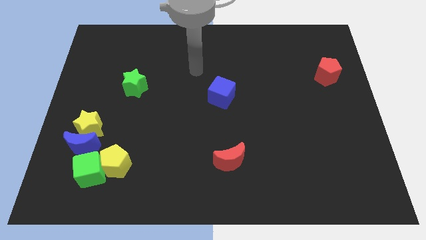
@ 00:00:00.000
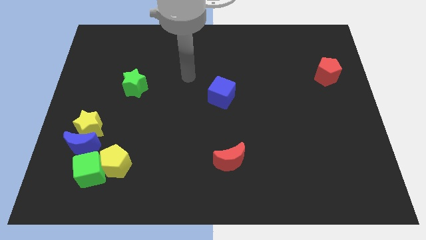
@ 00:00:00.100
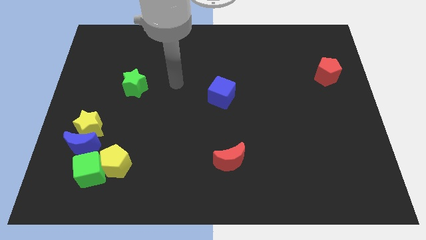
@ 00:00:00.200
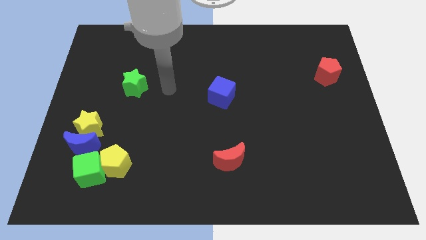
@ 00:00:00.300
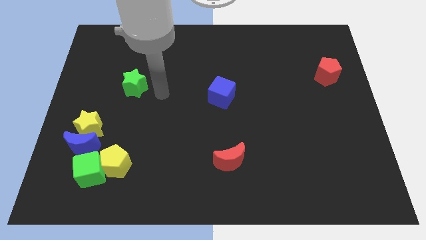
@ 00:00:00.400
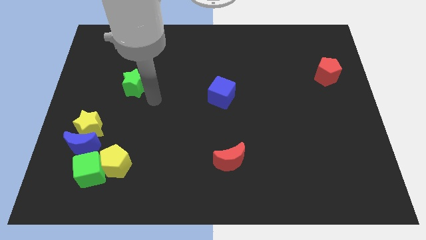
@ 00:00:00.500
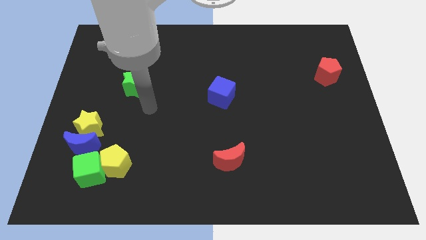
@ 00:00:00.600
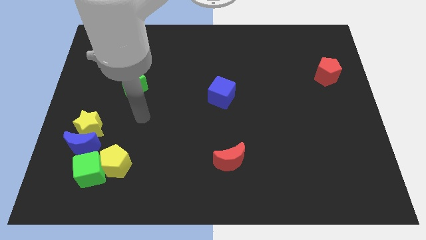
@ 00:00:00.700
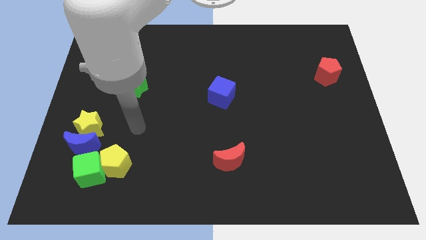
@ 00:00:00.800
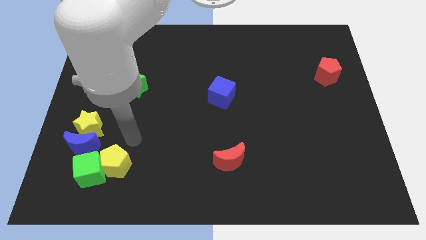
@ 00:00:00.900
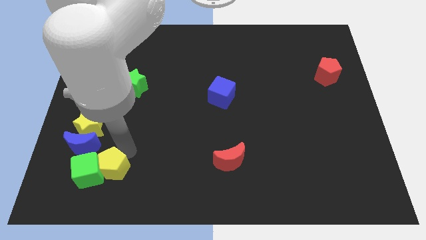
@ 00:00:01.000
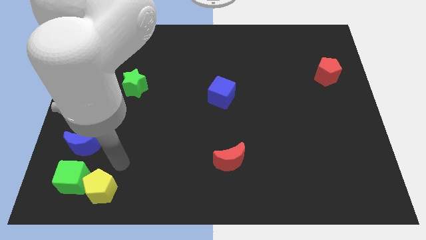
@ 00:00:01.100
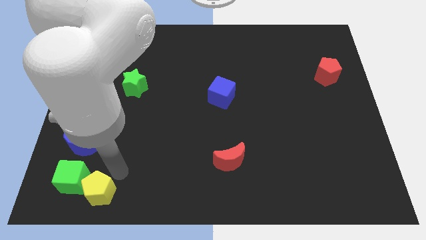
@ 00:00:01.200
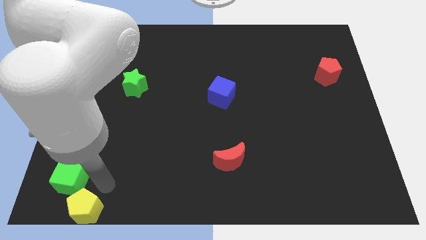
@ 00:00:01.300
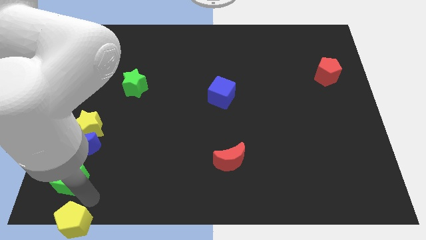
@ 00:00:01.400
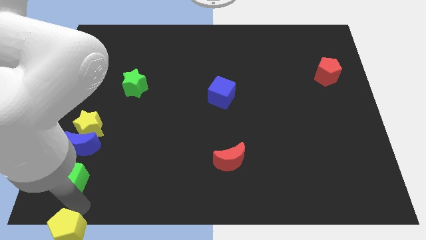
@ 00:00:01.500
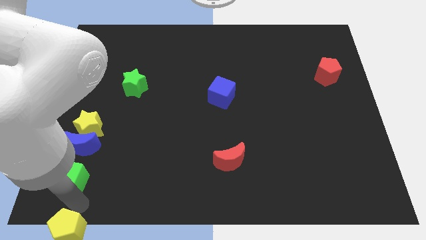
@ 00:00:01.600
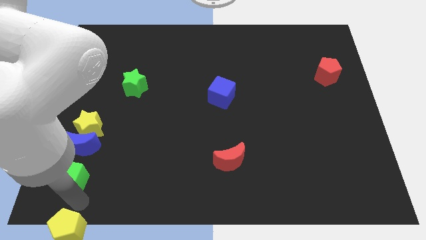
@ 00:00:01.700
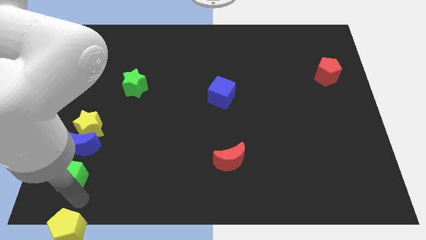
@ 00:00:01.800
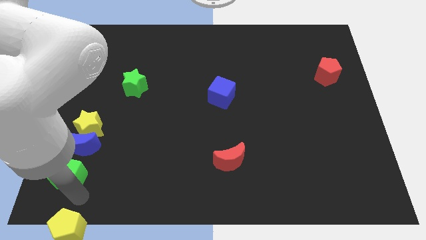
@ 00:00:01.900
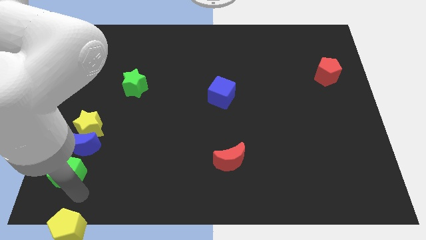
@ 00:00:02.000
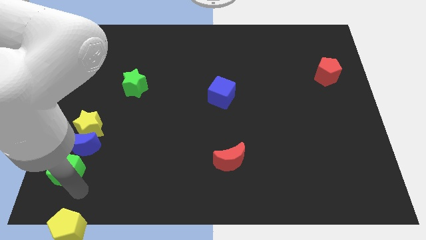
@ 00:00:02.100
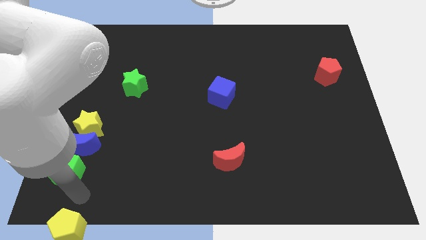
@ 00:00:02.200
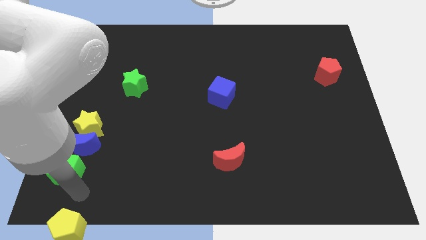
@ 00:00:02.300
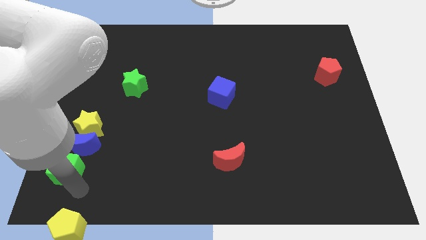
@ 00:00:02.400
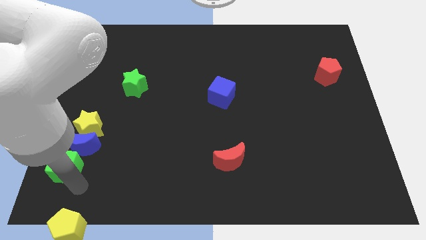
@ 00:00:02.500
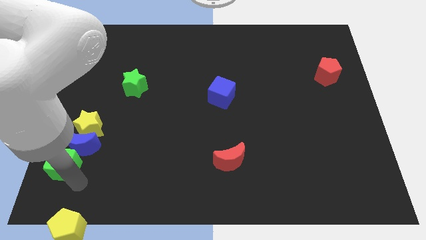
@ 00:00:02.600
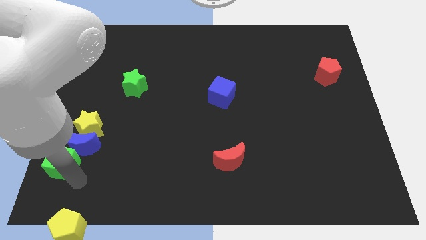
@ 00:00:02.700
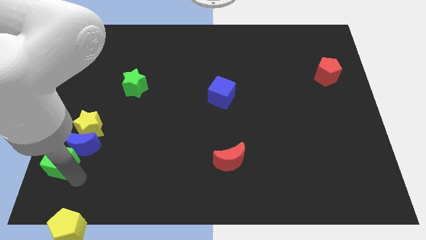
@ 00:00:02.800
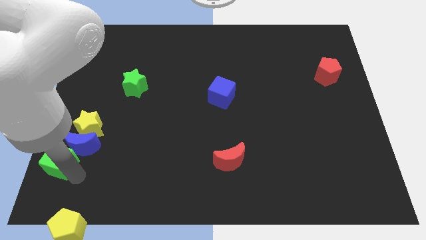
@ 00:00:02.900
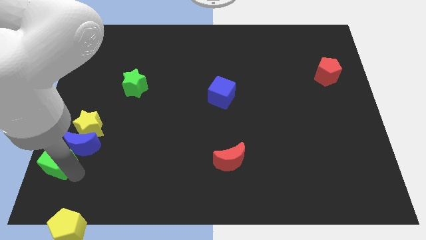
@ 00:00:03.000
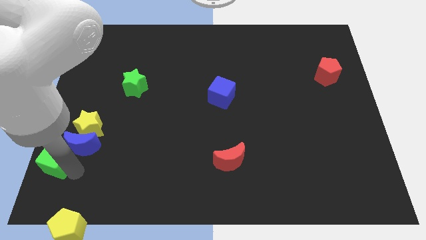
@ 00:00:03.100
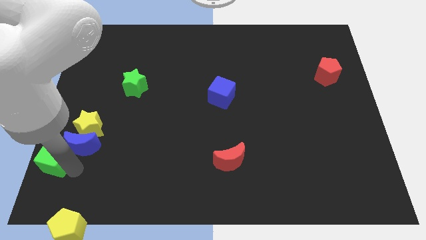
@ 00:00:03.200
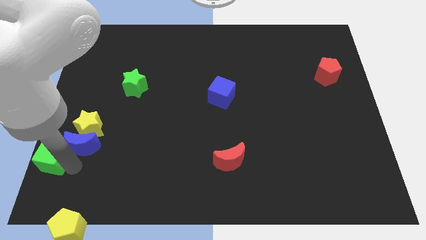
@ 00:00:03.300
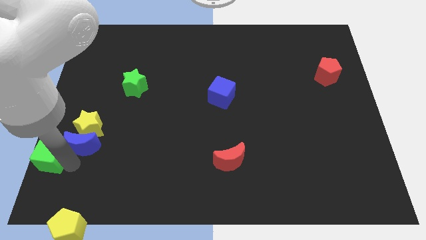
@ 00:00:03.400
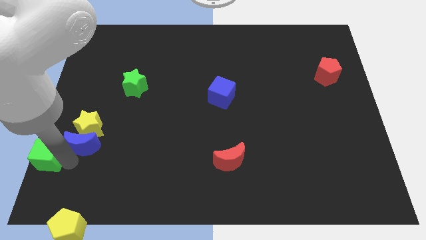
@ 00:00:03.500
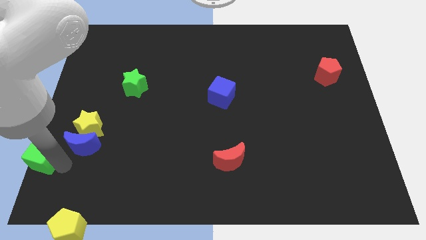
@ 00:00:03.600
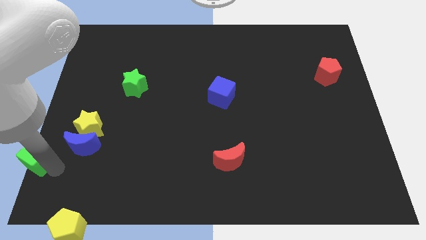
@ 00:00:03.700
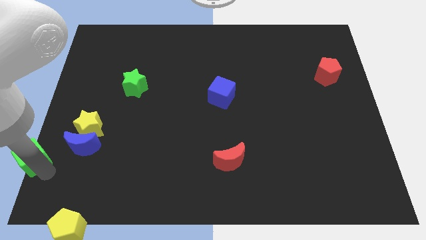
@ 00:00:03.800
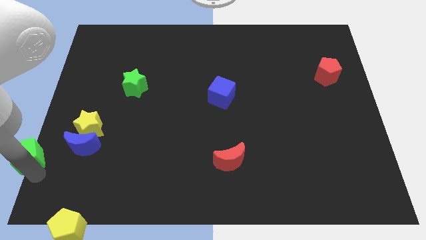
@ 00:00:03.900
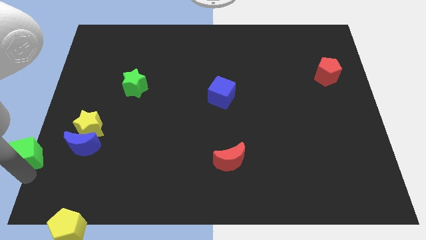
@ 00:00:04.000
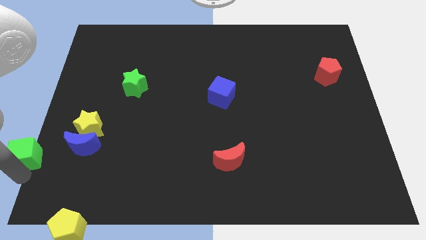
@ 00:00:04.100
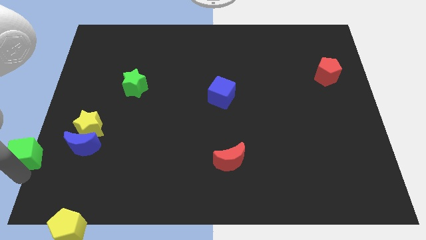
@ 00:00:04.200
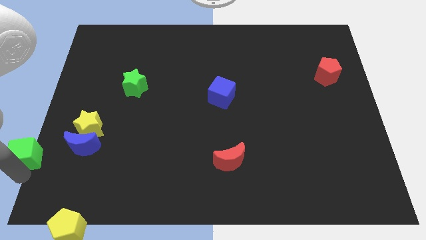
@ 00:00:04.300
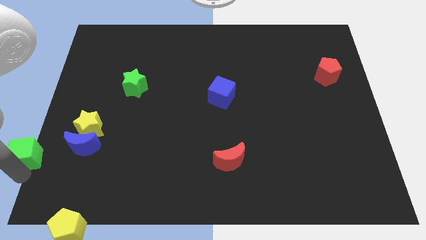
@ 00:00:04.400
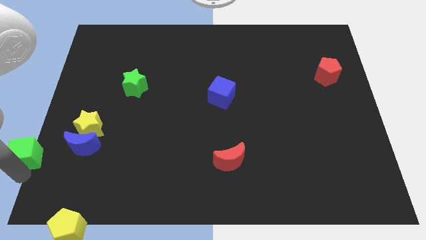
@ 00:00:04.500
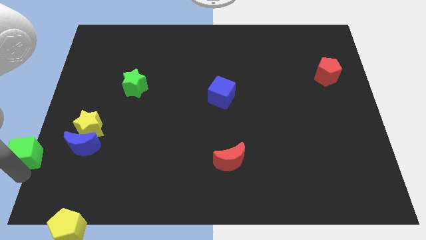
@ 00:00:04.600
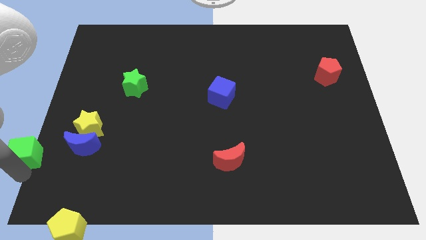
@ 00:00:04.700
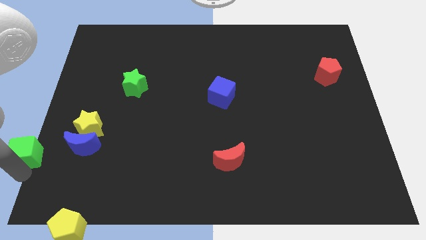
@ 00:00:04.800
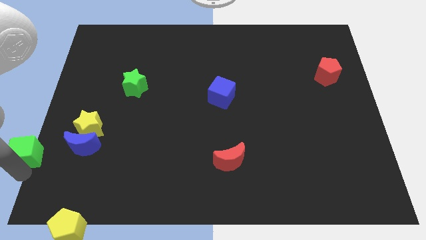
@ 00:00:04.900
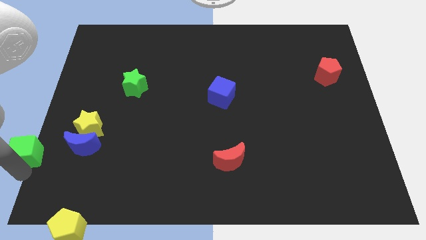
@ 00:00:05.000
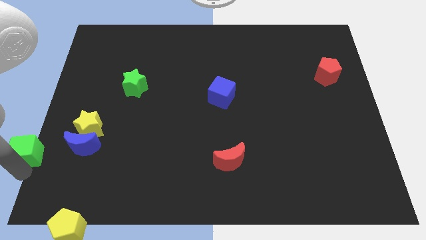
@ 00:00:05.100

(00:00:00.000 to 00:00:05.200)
push the green cube to the left side

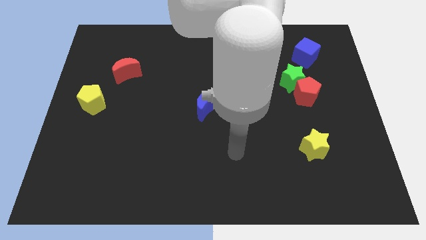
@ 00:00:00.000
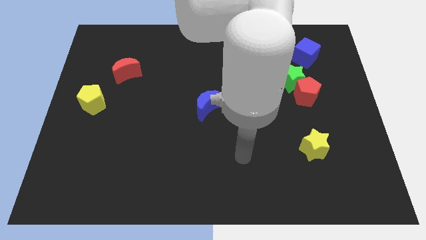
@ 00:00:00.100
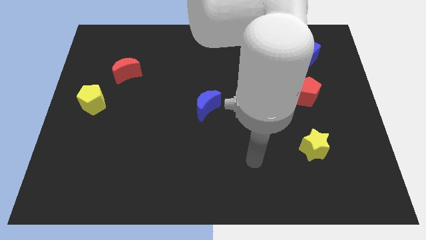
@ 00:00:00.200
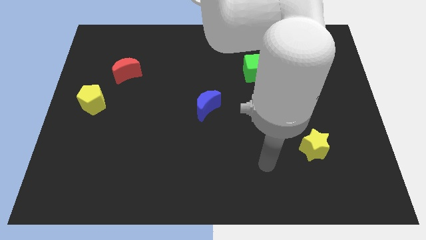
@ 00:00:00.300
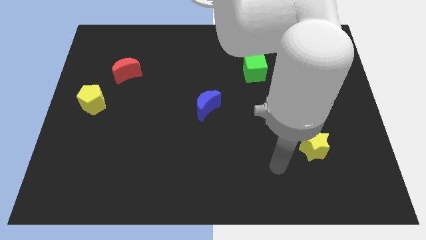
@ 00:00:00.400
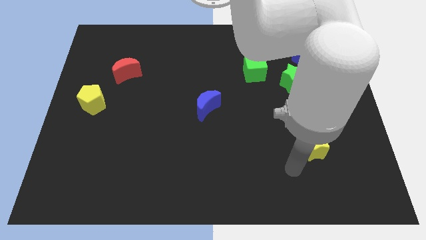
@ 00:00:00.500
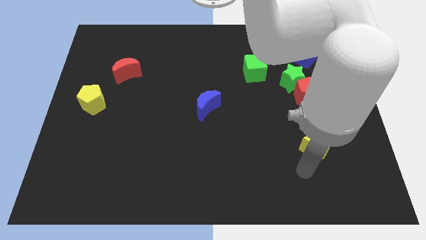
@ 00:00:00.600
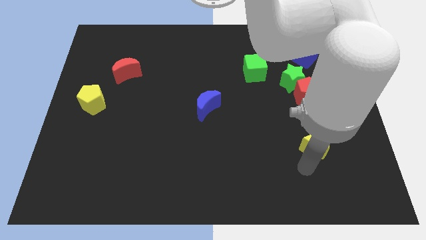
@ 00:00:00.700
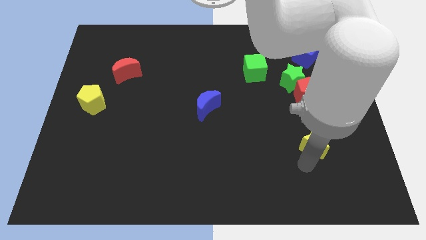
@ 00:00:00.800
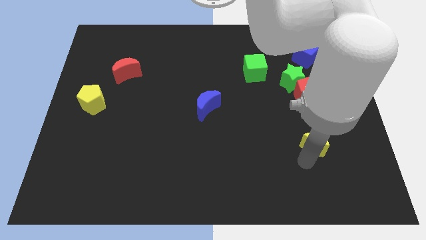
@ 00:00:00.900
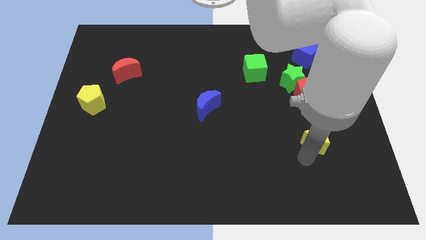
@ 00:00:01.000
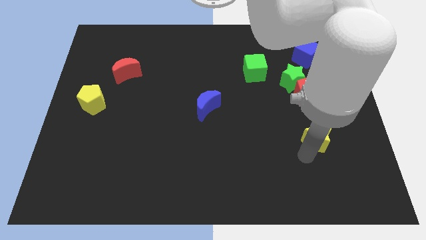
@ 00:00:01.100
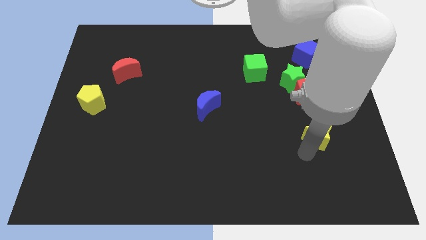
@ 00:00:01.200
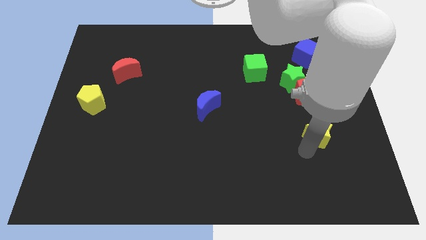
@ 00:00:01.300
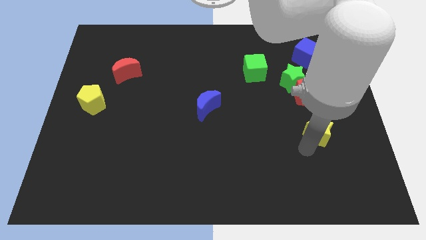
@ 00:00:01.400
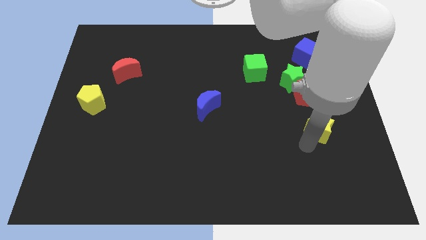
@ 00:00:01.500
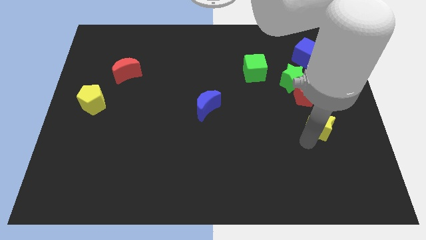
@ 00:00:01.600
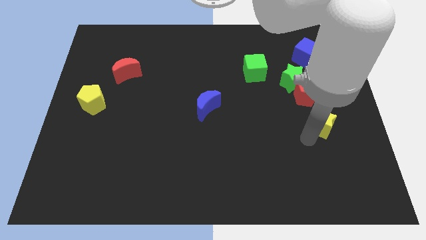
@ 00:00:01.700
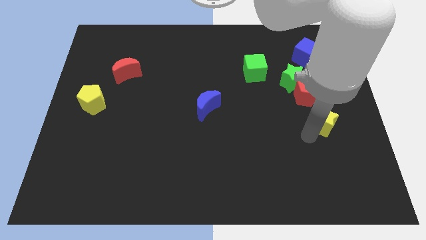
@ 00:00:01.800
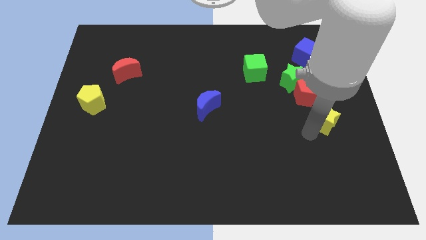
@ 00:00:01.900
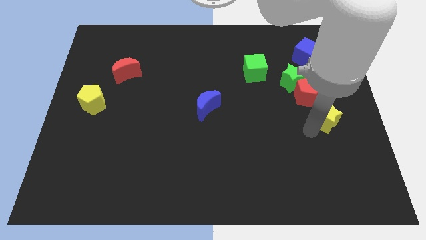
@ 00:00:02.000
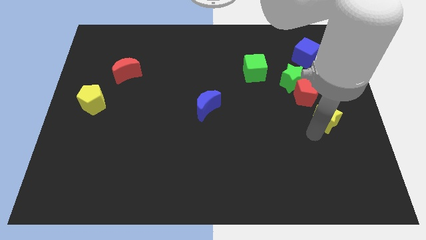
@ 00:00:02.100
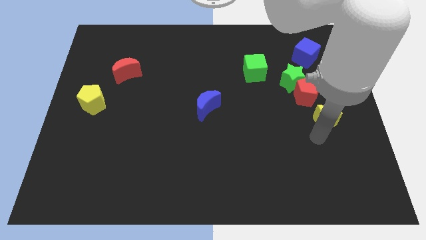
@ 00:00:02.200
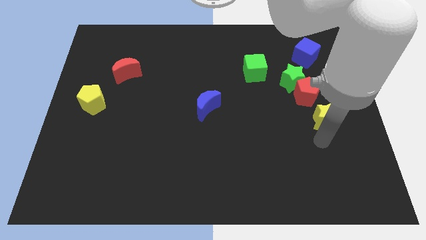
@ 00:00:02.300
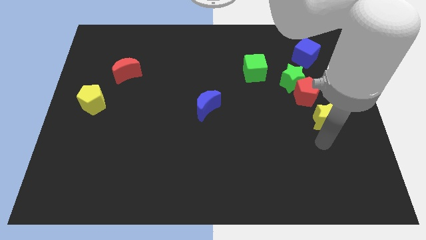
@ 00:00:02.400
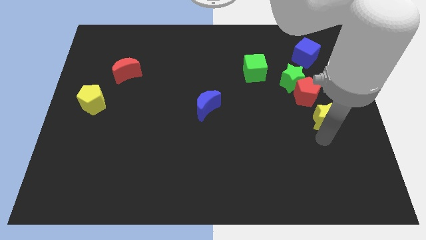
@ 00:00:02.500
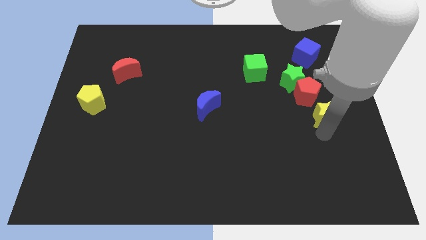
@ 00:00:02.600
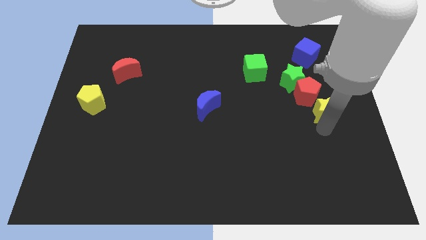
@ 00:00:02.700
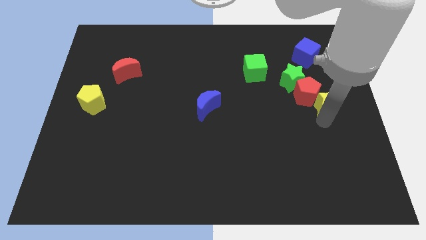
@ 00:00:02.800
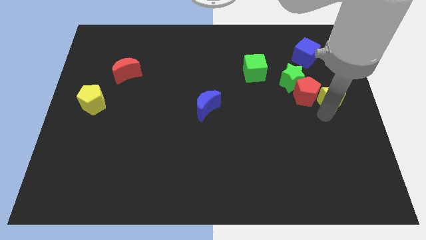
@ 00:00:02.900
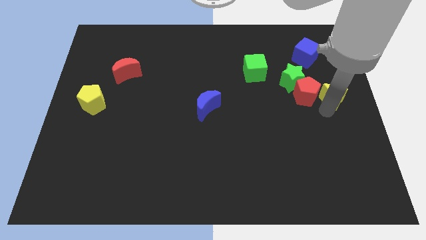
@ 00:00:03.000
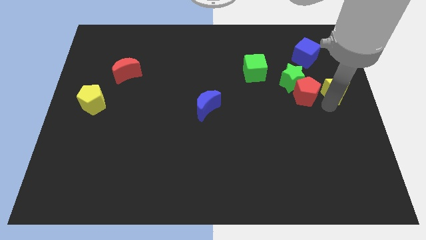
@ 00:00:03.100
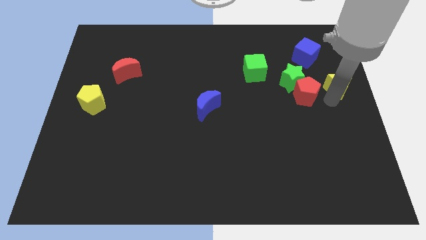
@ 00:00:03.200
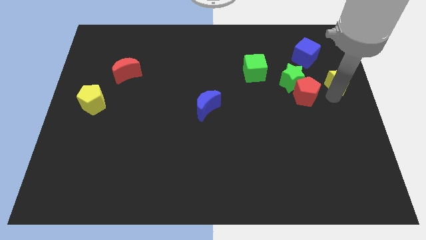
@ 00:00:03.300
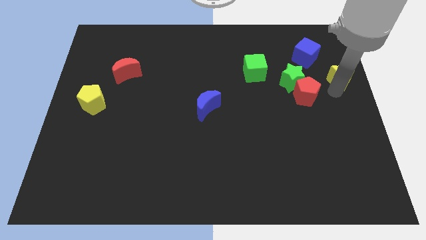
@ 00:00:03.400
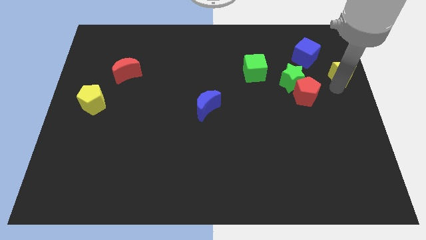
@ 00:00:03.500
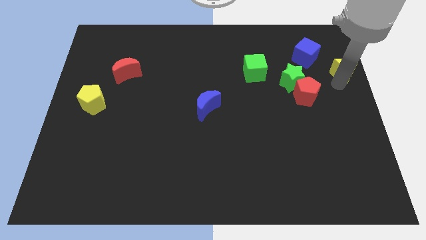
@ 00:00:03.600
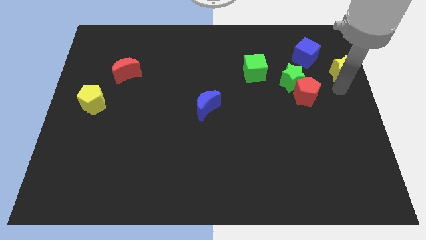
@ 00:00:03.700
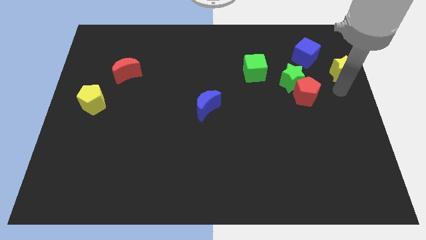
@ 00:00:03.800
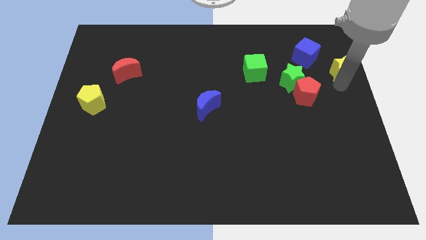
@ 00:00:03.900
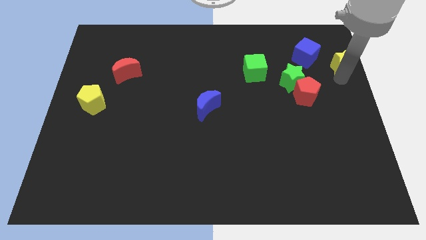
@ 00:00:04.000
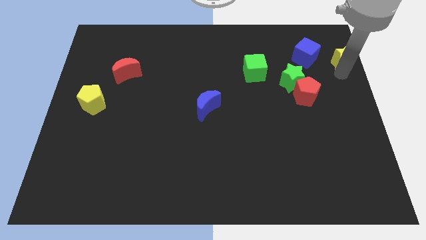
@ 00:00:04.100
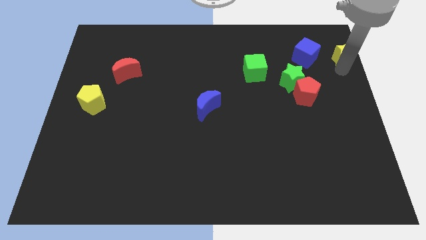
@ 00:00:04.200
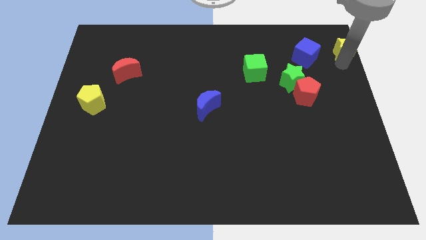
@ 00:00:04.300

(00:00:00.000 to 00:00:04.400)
slide the yellow star to the upper right corner
